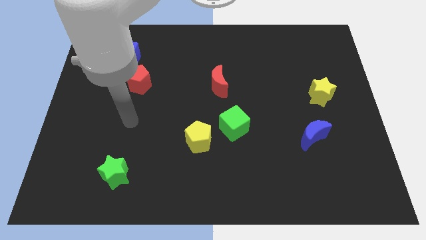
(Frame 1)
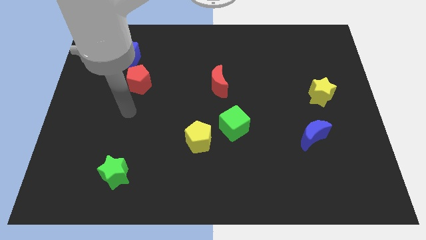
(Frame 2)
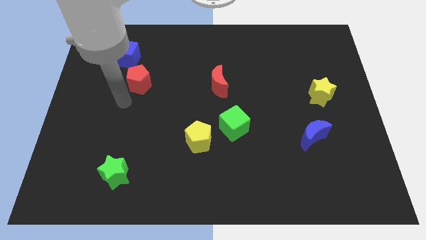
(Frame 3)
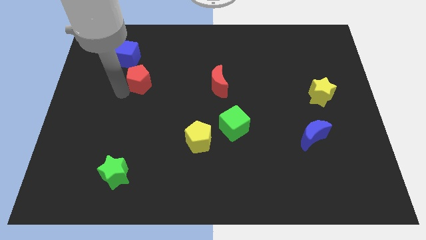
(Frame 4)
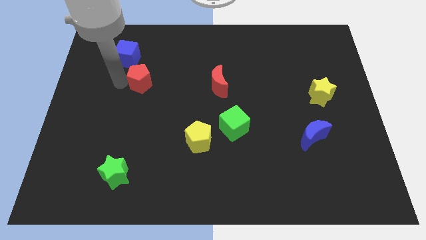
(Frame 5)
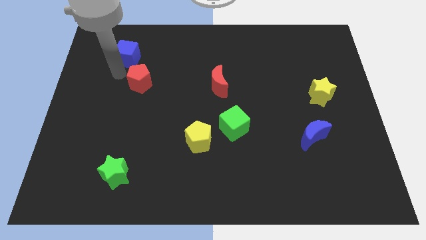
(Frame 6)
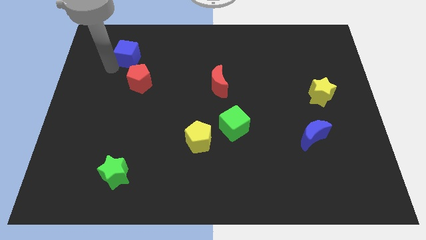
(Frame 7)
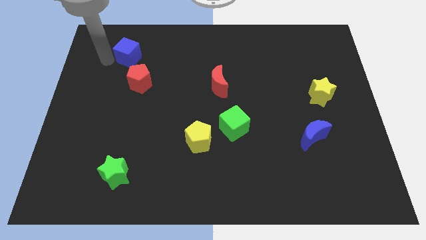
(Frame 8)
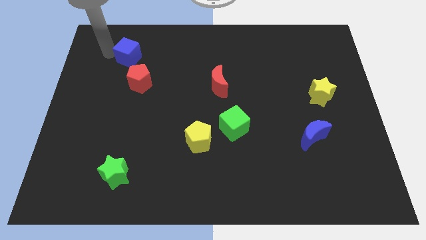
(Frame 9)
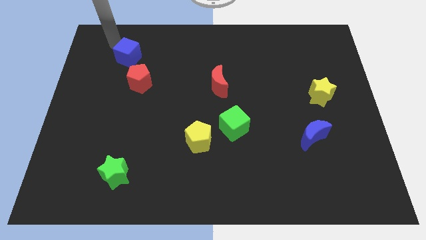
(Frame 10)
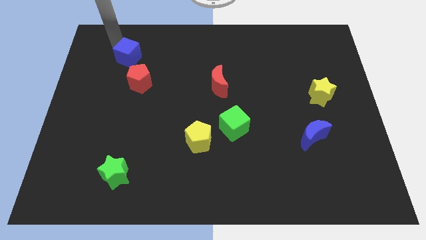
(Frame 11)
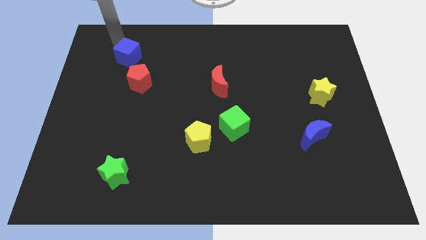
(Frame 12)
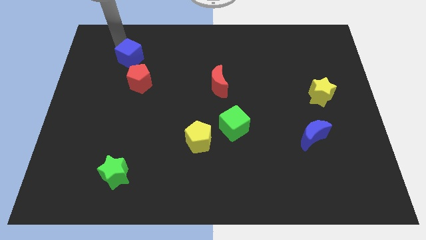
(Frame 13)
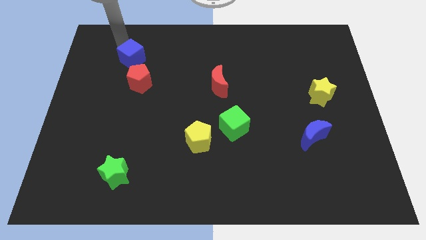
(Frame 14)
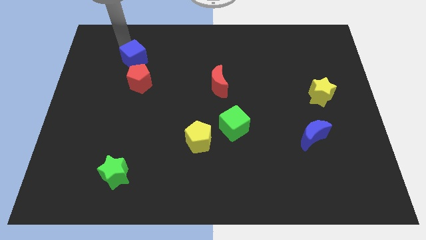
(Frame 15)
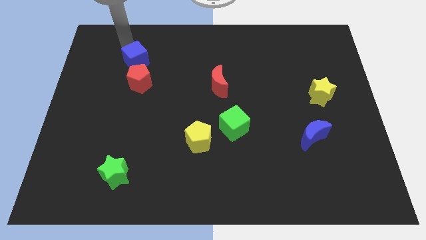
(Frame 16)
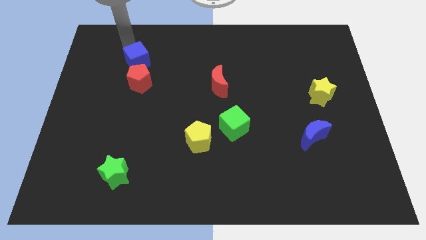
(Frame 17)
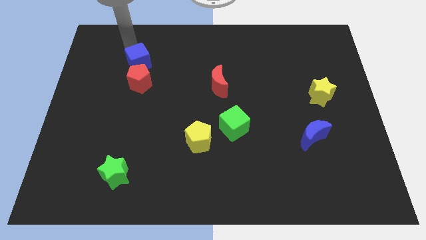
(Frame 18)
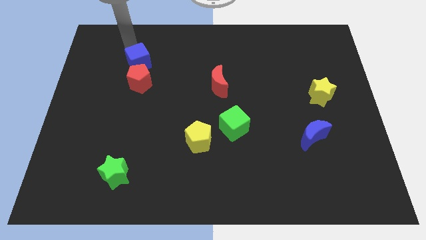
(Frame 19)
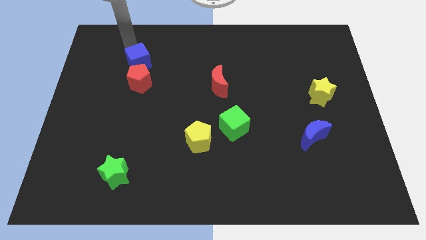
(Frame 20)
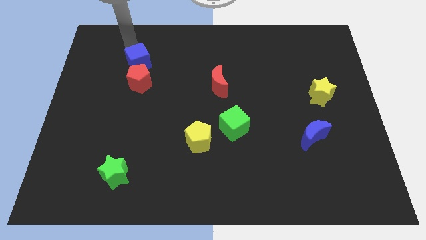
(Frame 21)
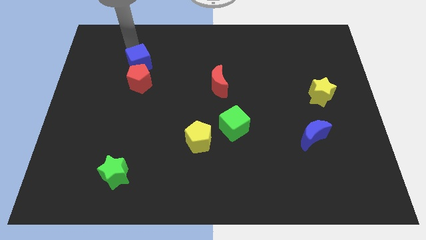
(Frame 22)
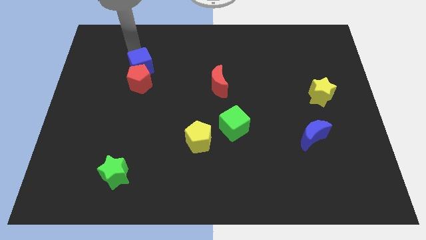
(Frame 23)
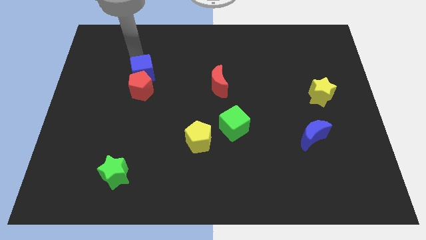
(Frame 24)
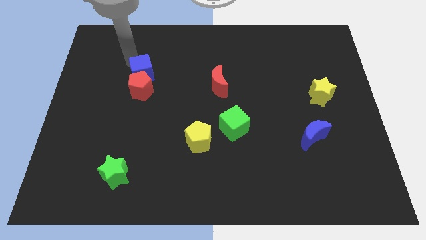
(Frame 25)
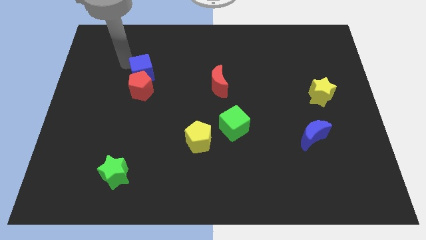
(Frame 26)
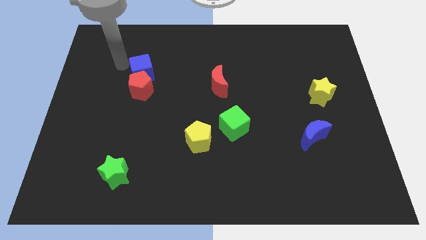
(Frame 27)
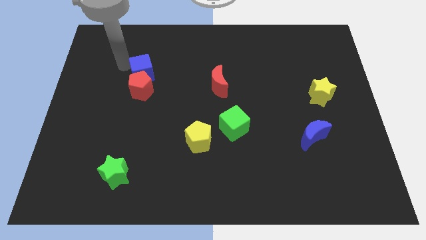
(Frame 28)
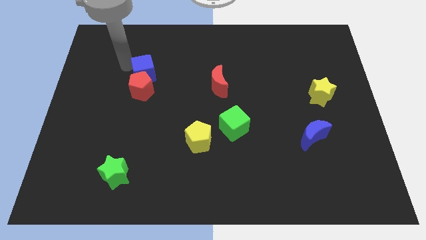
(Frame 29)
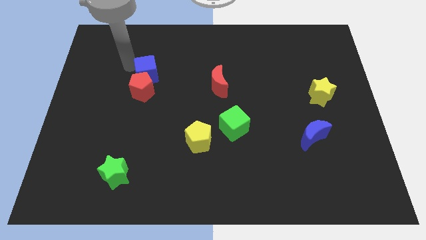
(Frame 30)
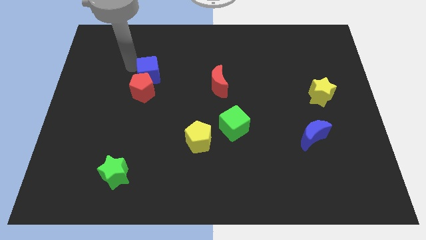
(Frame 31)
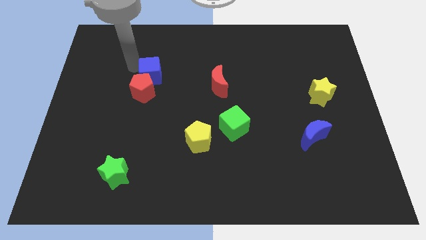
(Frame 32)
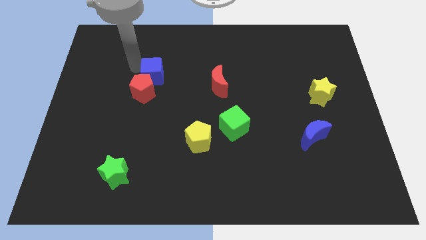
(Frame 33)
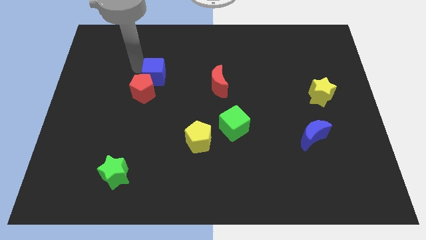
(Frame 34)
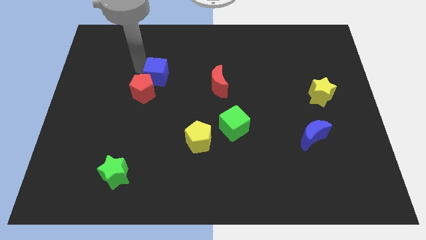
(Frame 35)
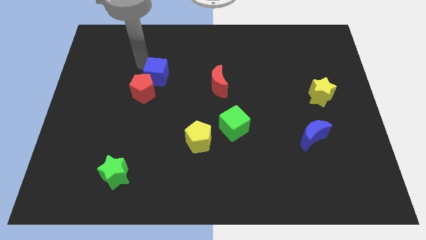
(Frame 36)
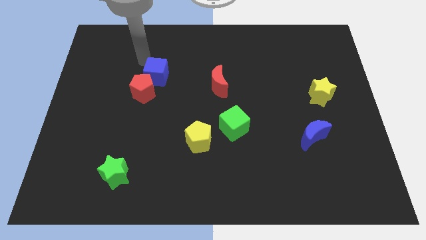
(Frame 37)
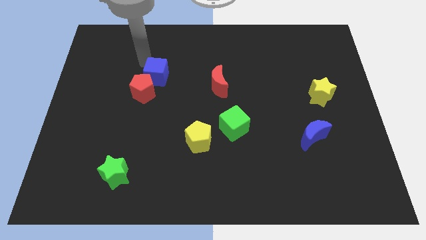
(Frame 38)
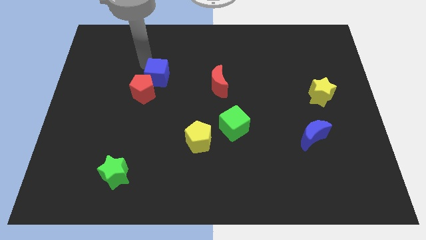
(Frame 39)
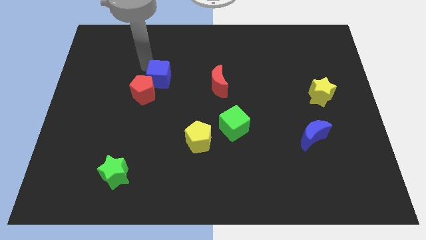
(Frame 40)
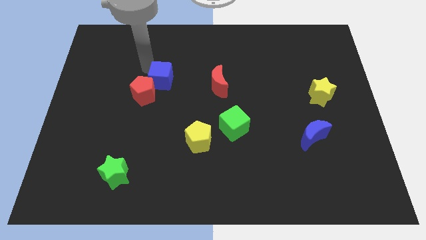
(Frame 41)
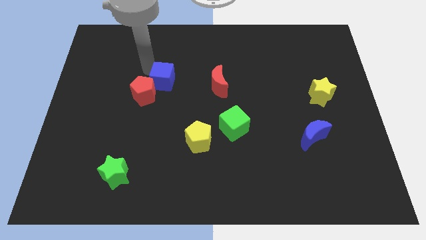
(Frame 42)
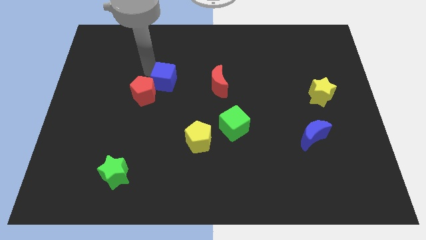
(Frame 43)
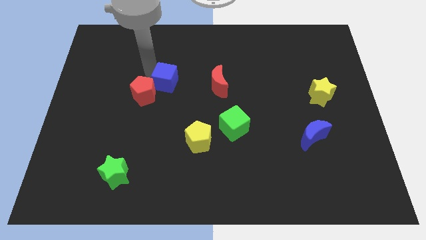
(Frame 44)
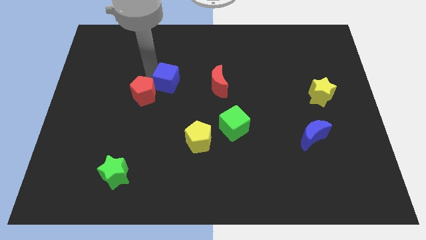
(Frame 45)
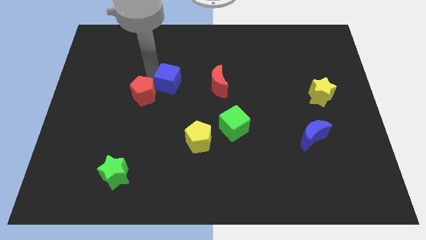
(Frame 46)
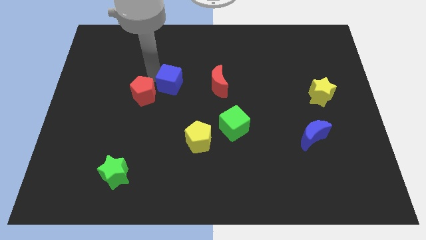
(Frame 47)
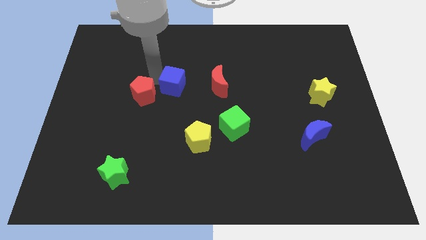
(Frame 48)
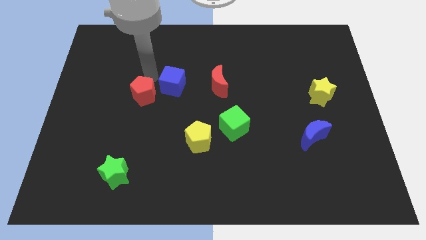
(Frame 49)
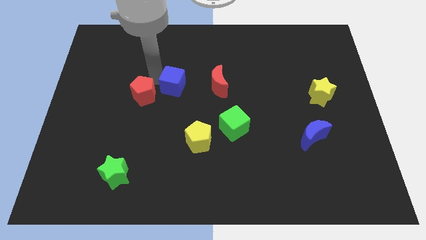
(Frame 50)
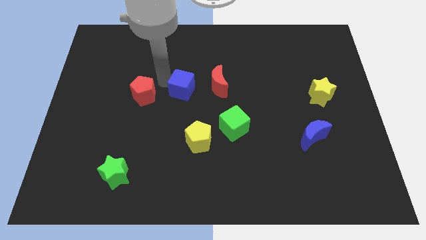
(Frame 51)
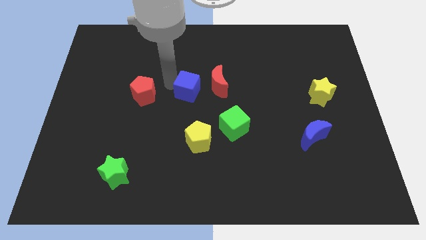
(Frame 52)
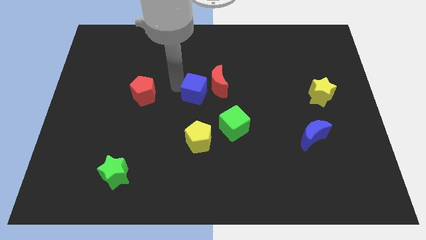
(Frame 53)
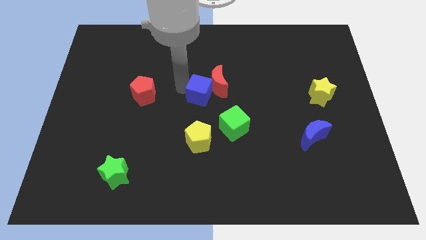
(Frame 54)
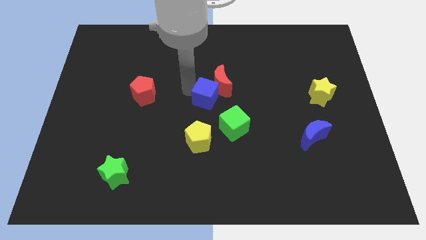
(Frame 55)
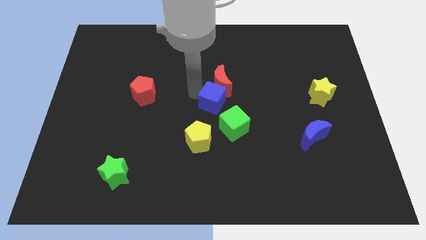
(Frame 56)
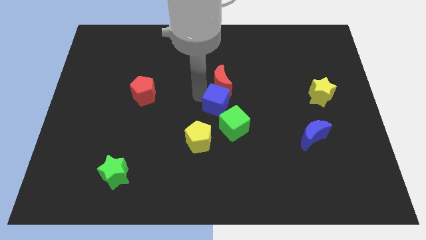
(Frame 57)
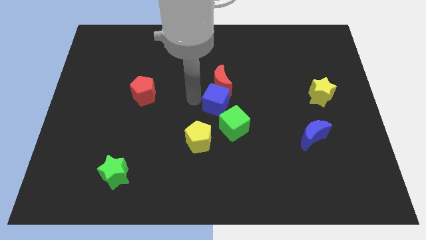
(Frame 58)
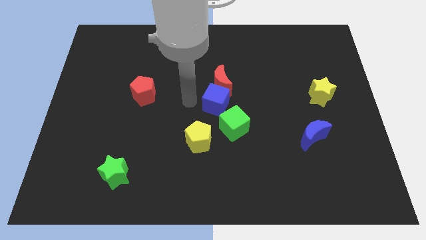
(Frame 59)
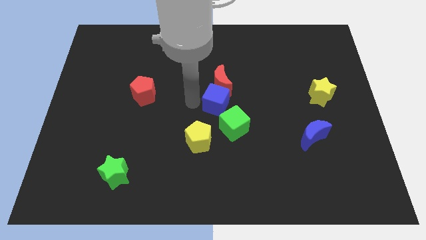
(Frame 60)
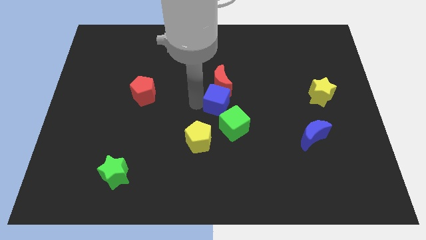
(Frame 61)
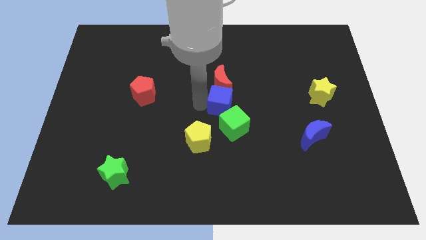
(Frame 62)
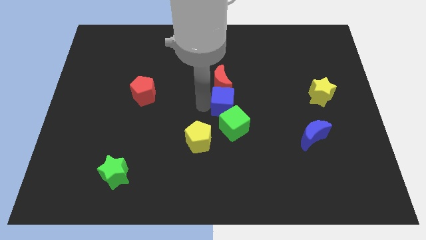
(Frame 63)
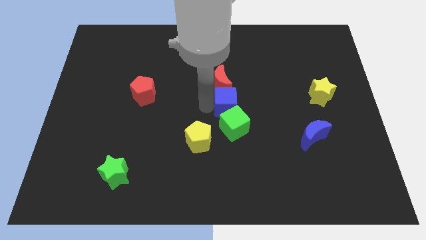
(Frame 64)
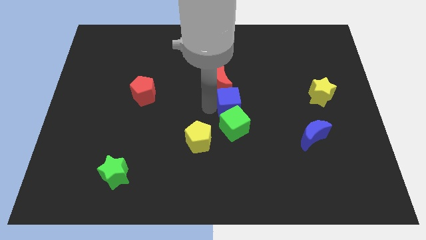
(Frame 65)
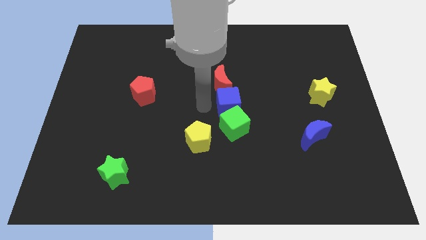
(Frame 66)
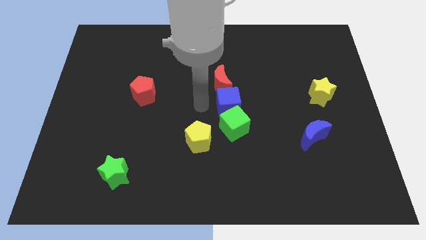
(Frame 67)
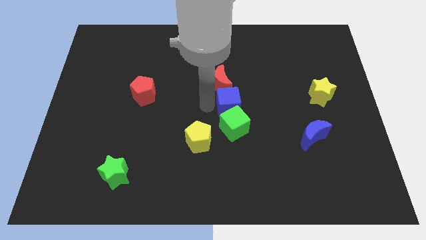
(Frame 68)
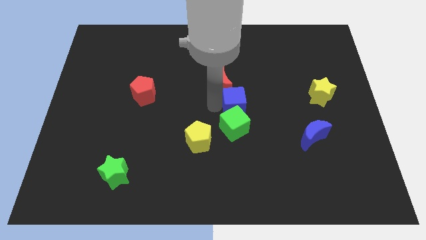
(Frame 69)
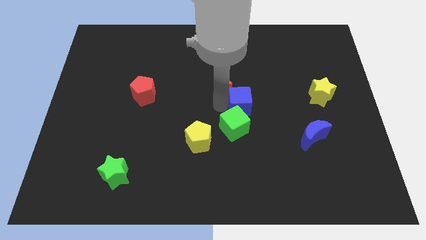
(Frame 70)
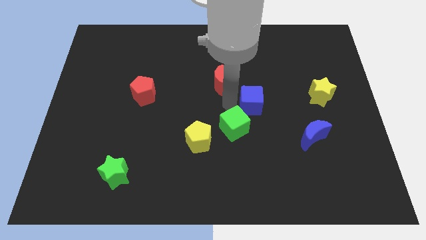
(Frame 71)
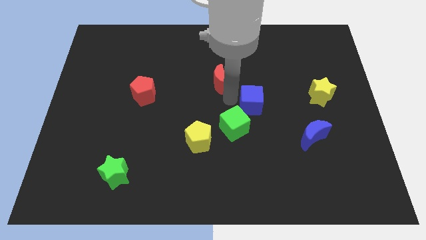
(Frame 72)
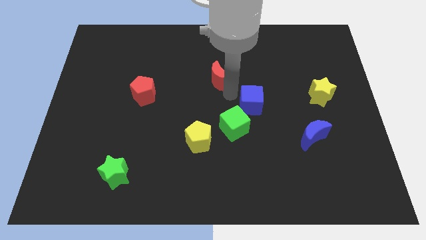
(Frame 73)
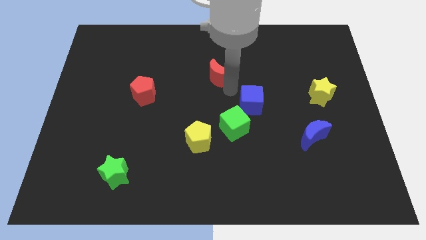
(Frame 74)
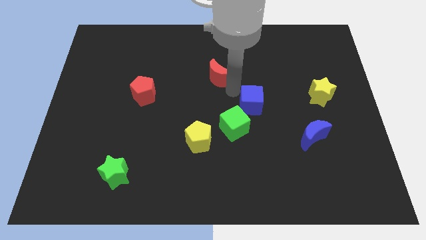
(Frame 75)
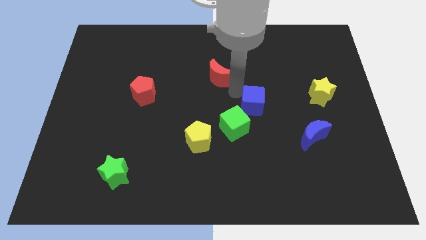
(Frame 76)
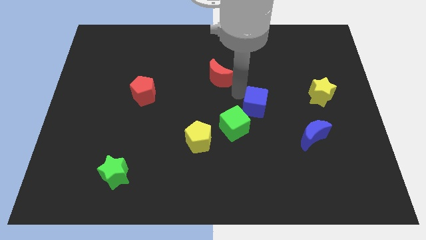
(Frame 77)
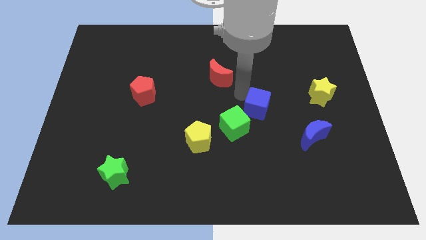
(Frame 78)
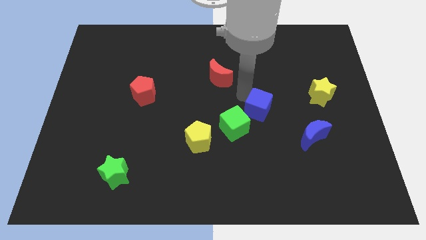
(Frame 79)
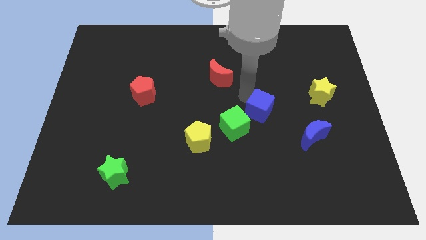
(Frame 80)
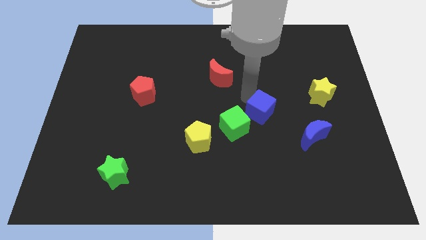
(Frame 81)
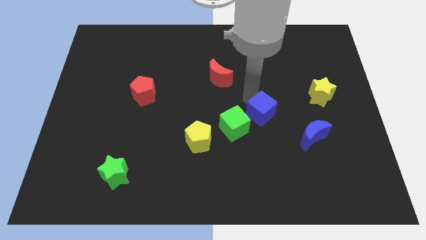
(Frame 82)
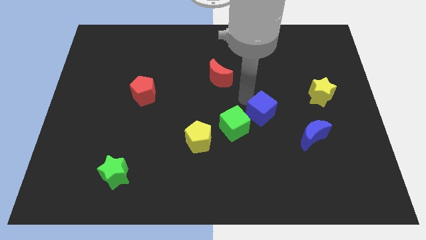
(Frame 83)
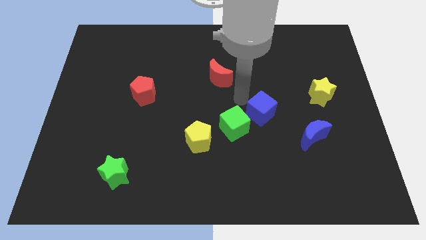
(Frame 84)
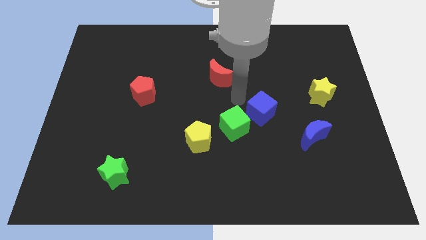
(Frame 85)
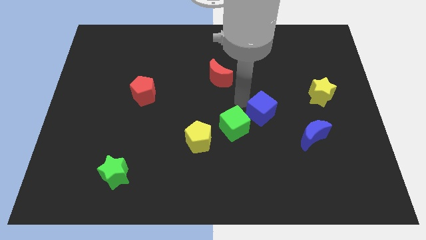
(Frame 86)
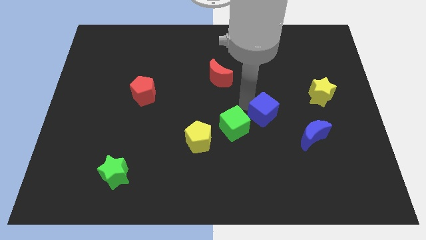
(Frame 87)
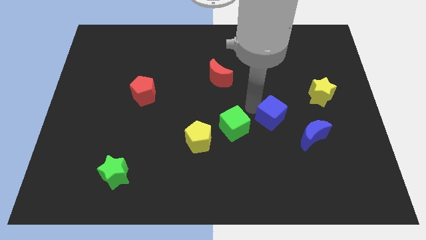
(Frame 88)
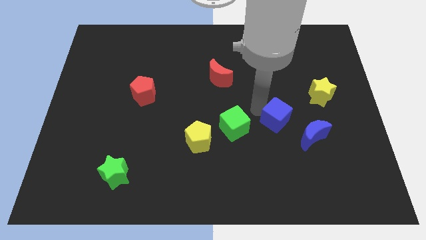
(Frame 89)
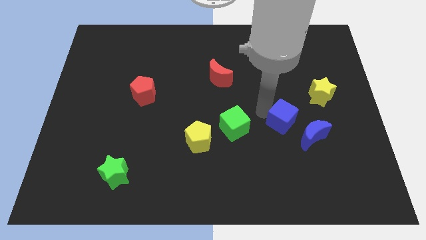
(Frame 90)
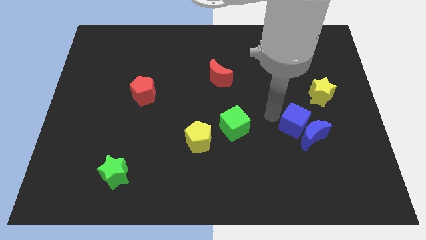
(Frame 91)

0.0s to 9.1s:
move the blue cube next to the blue moon
